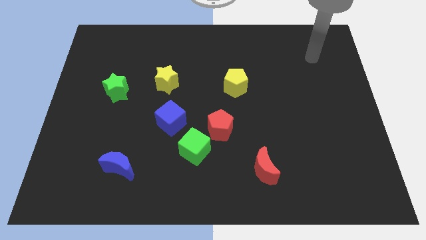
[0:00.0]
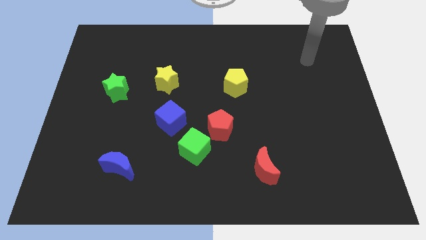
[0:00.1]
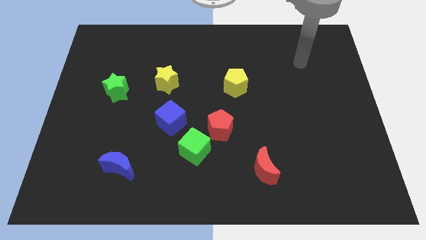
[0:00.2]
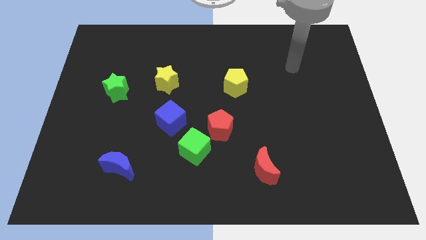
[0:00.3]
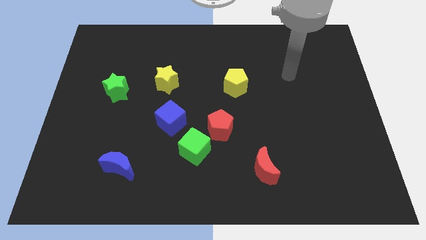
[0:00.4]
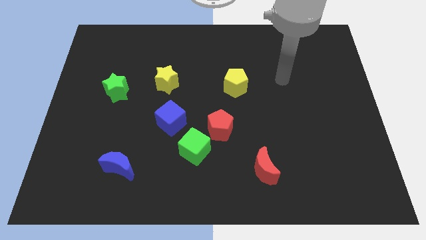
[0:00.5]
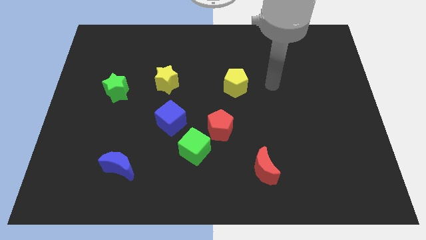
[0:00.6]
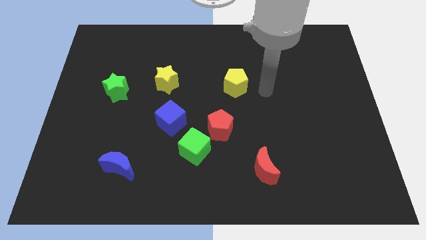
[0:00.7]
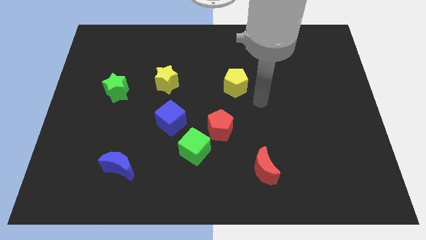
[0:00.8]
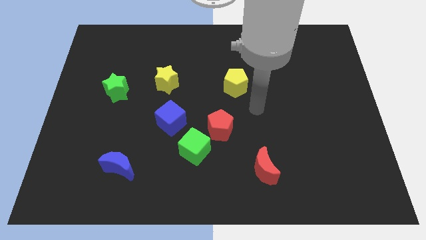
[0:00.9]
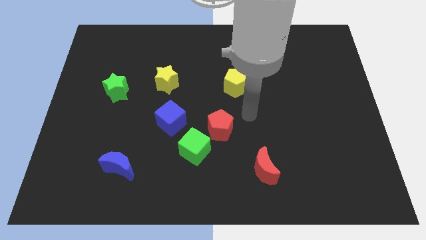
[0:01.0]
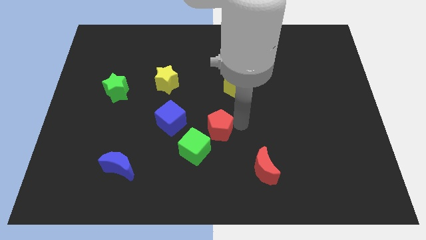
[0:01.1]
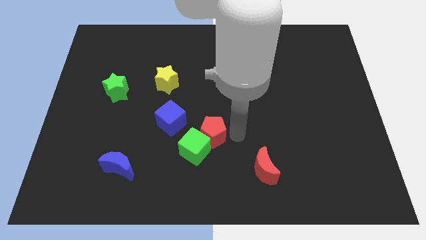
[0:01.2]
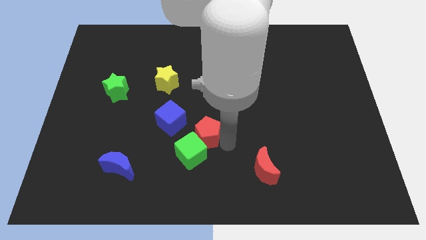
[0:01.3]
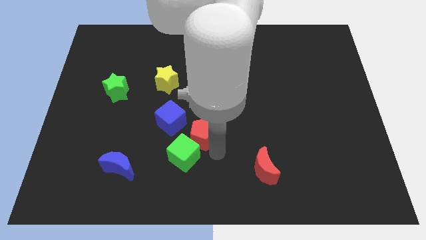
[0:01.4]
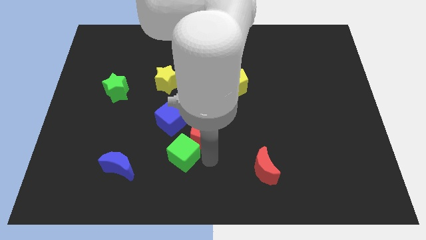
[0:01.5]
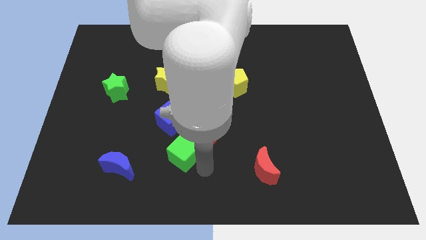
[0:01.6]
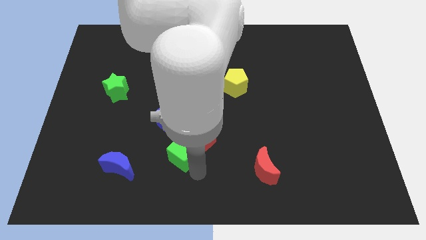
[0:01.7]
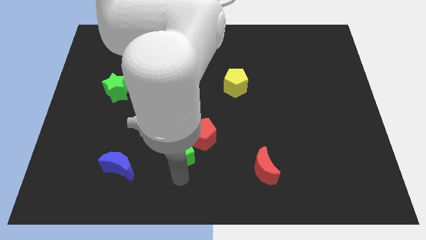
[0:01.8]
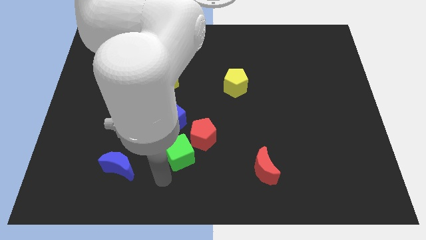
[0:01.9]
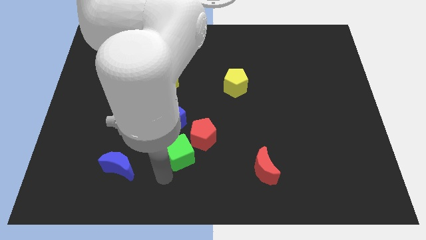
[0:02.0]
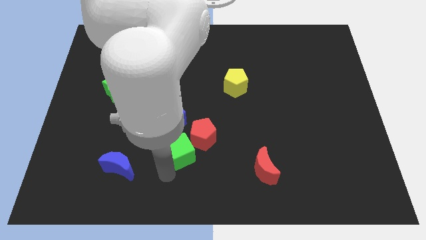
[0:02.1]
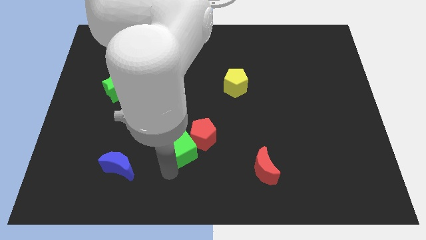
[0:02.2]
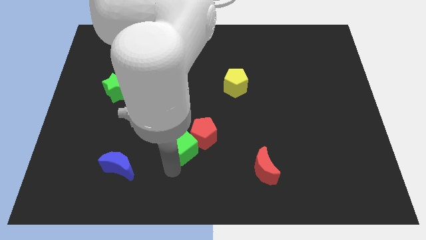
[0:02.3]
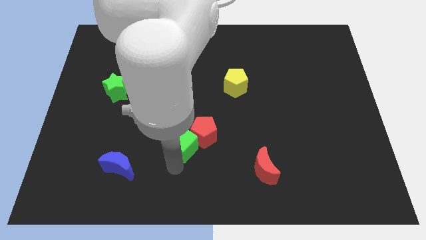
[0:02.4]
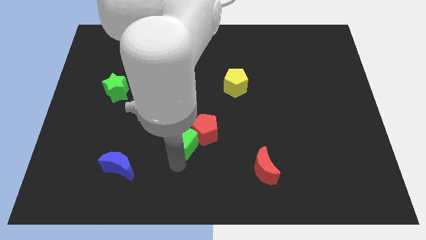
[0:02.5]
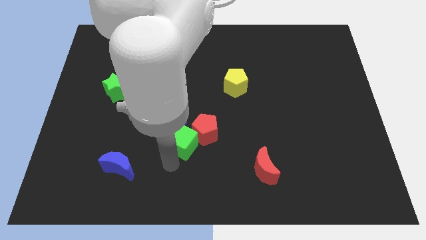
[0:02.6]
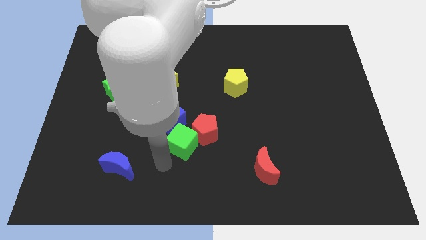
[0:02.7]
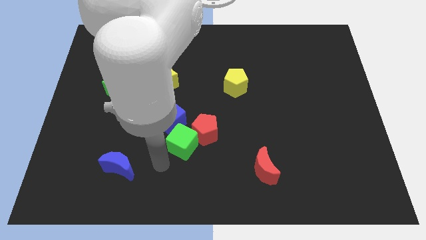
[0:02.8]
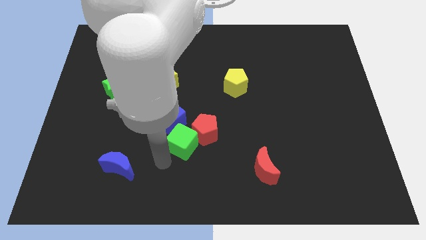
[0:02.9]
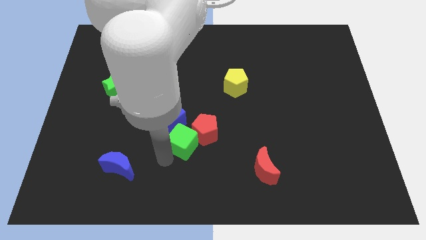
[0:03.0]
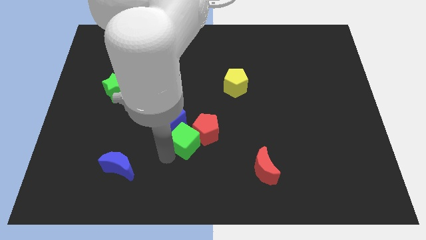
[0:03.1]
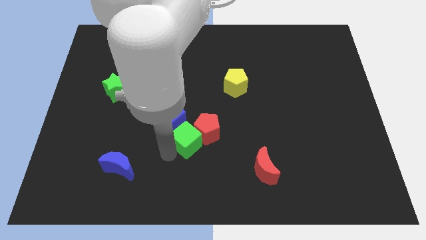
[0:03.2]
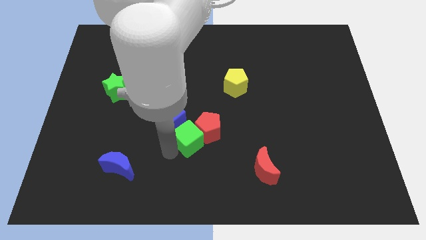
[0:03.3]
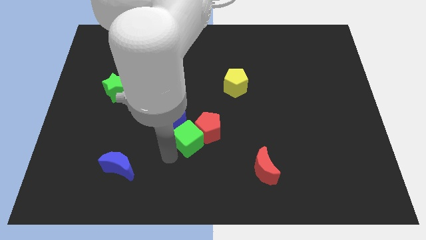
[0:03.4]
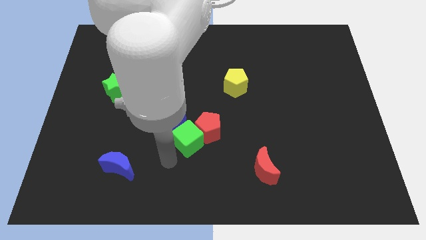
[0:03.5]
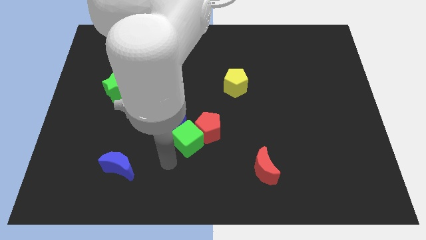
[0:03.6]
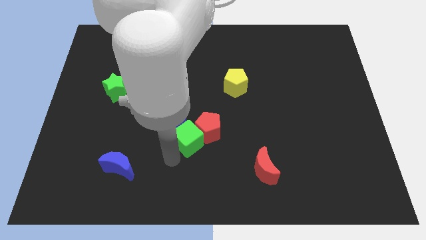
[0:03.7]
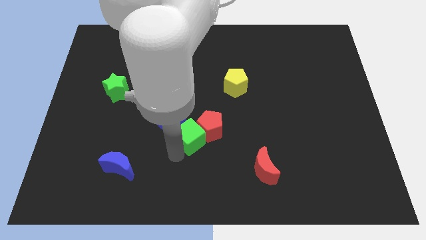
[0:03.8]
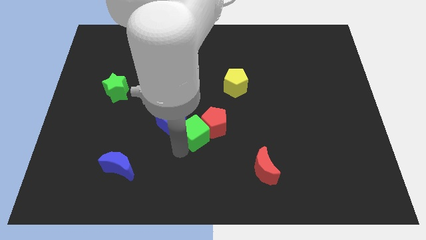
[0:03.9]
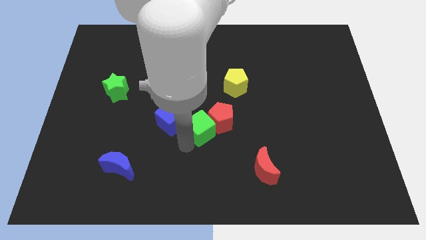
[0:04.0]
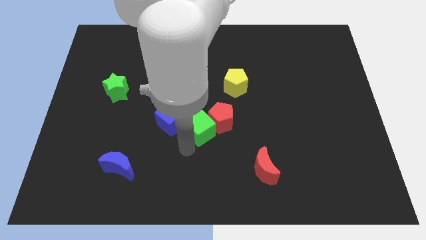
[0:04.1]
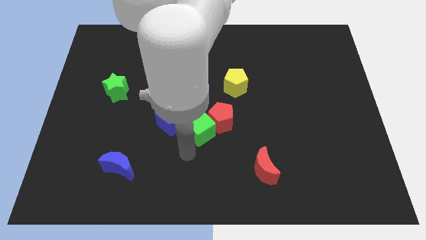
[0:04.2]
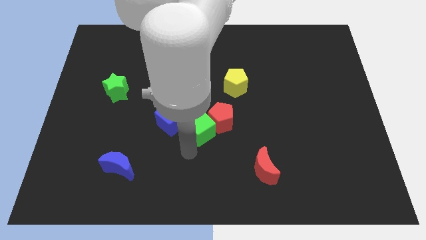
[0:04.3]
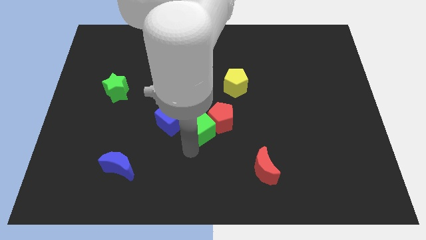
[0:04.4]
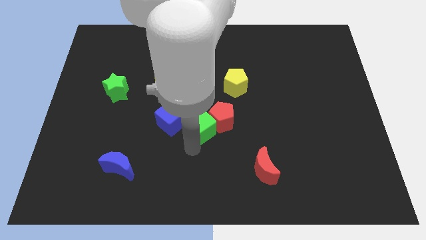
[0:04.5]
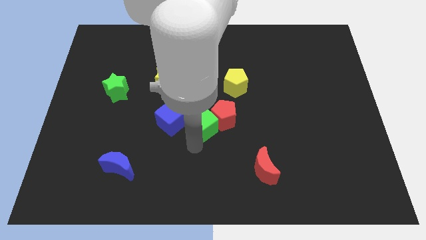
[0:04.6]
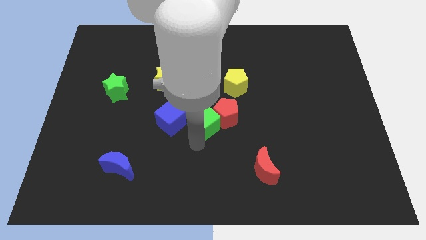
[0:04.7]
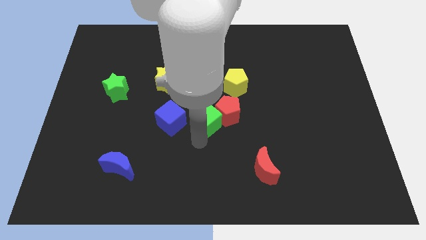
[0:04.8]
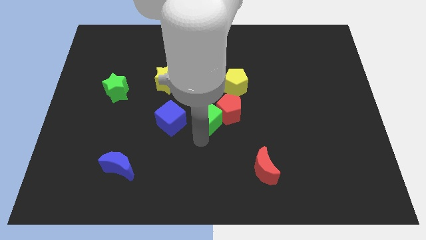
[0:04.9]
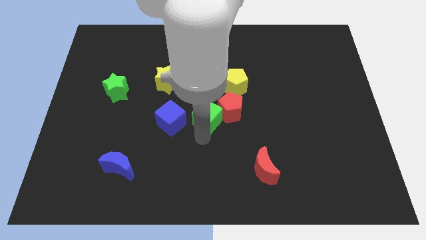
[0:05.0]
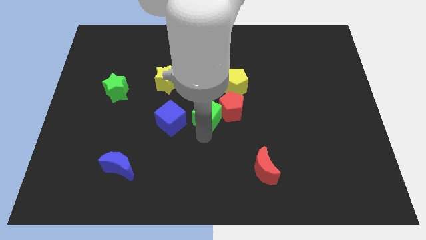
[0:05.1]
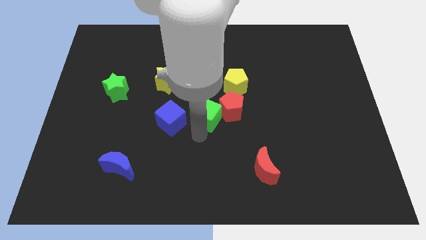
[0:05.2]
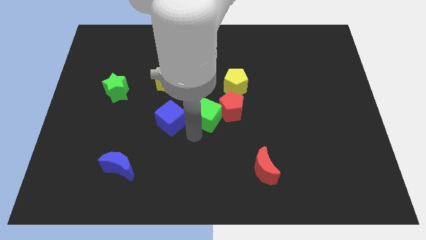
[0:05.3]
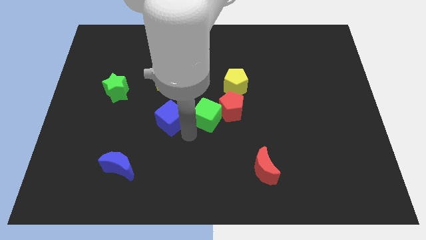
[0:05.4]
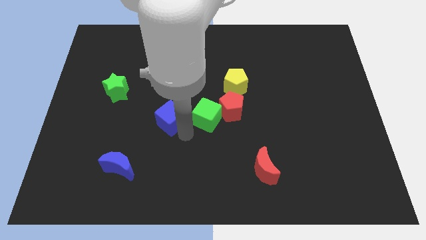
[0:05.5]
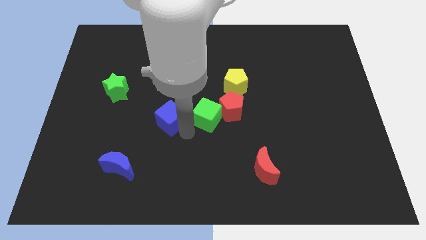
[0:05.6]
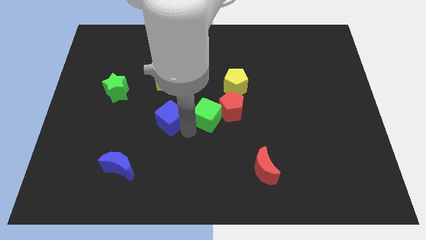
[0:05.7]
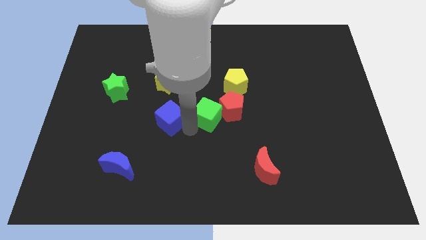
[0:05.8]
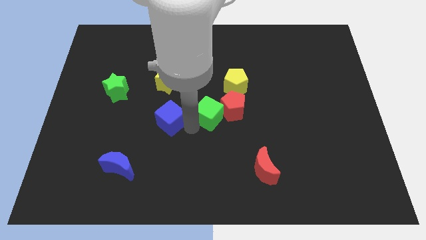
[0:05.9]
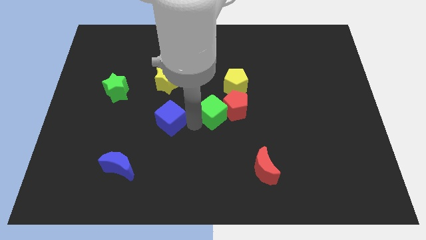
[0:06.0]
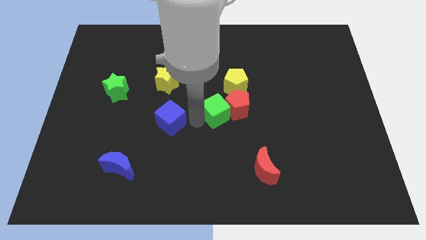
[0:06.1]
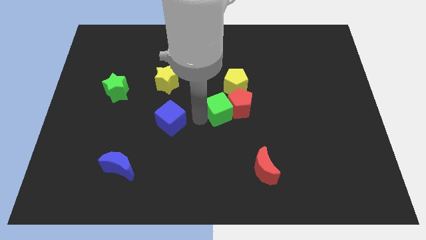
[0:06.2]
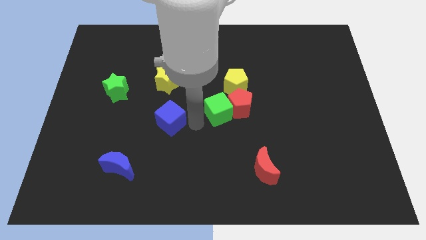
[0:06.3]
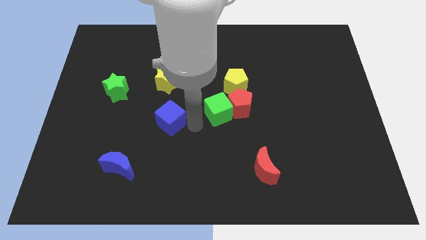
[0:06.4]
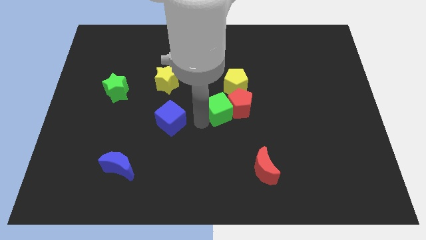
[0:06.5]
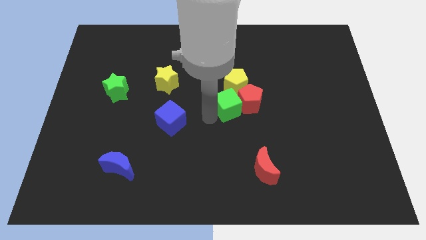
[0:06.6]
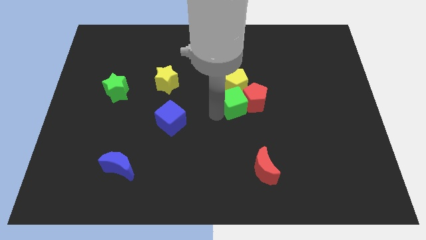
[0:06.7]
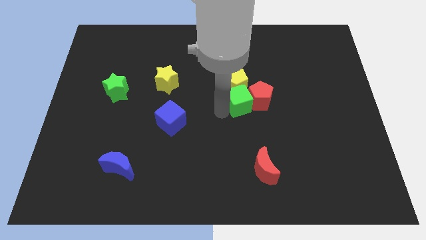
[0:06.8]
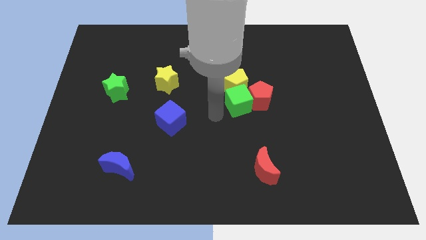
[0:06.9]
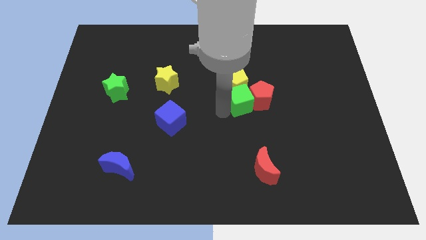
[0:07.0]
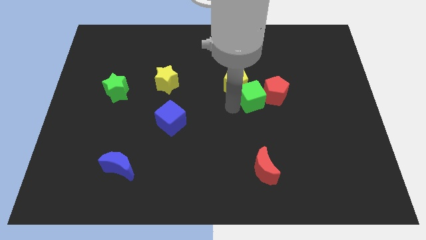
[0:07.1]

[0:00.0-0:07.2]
put the green cube just right of the yellow pentagon
